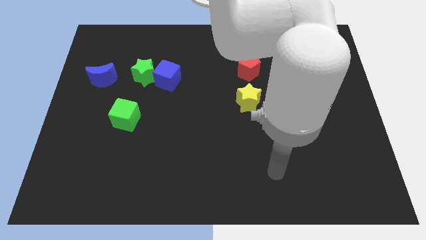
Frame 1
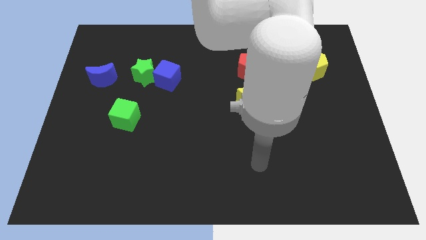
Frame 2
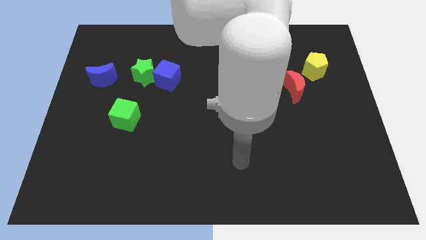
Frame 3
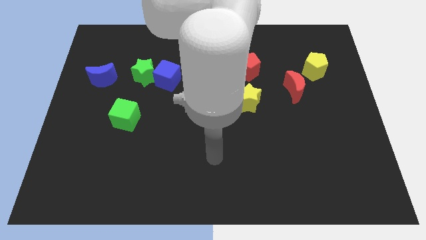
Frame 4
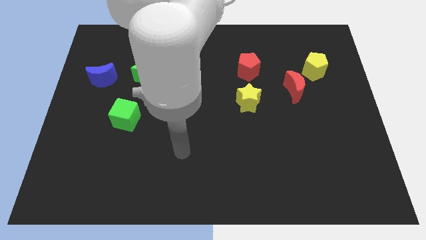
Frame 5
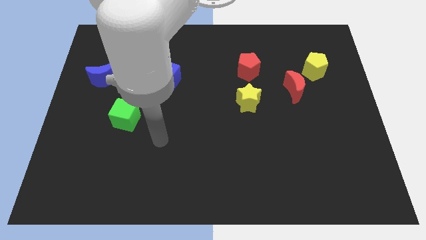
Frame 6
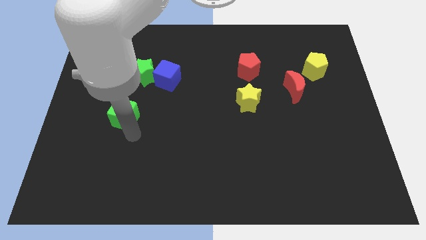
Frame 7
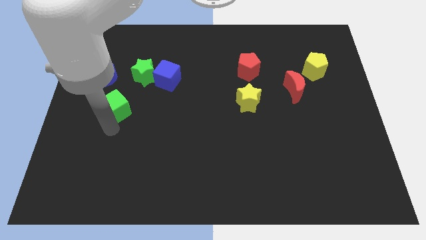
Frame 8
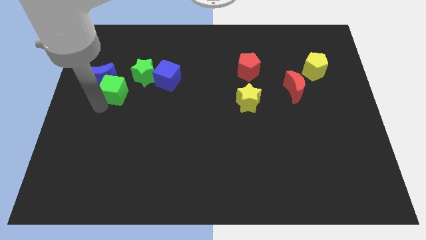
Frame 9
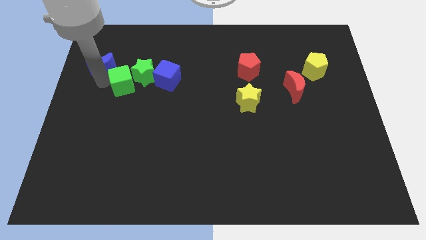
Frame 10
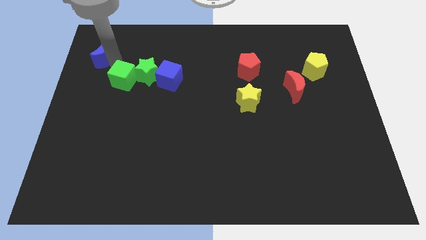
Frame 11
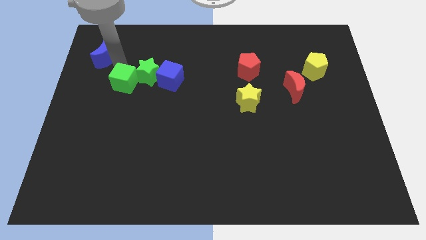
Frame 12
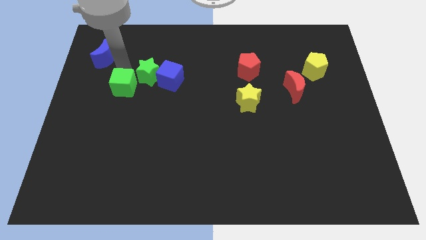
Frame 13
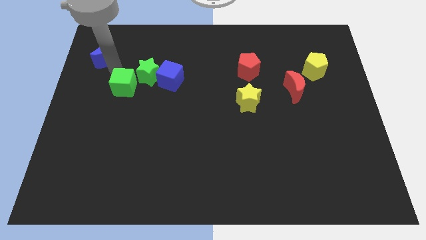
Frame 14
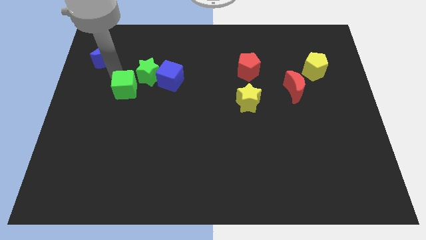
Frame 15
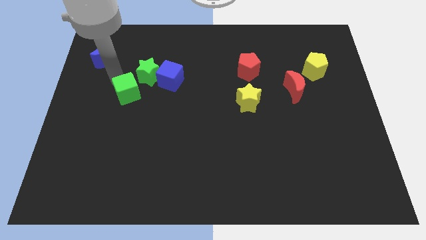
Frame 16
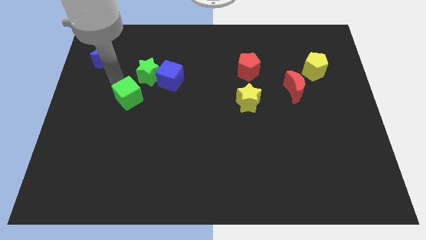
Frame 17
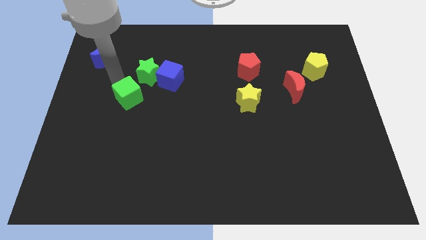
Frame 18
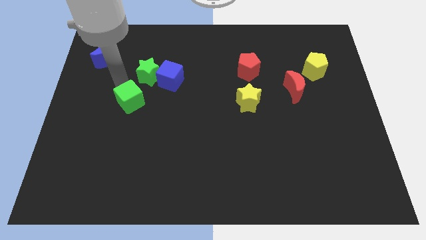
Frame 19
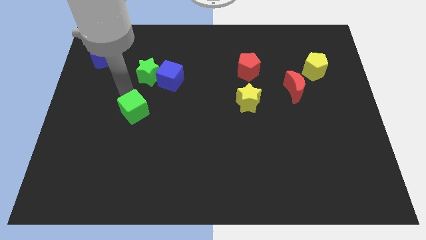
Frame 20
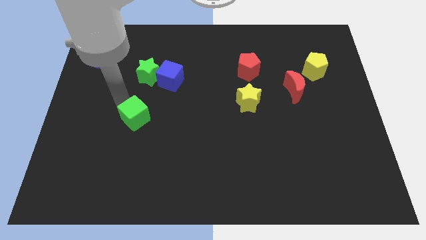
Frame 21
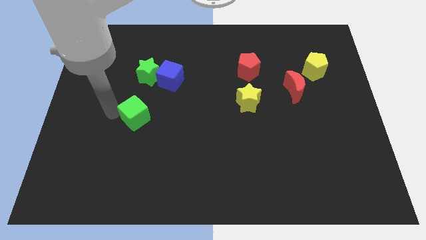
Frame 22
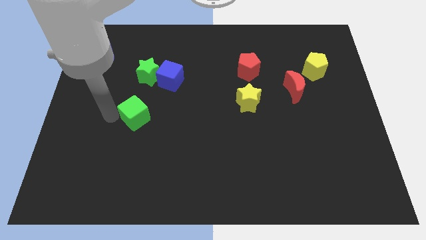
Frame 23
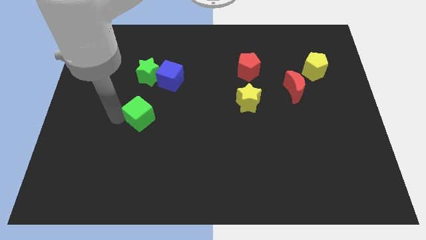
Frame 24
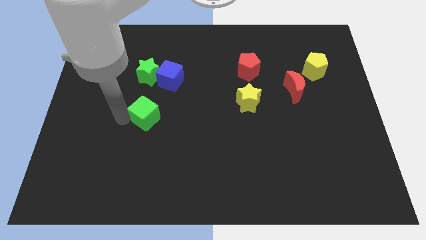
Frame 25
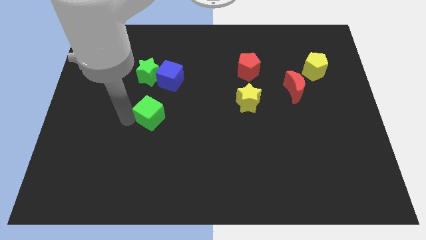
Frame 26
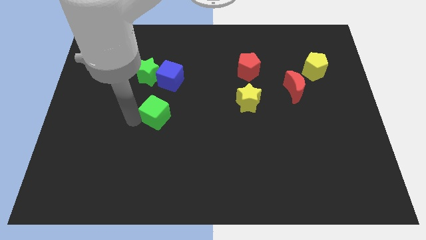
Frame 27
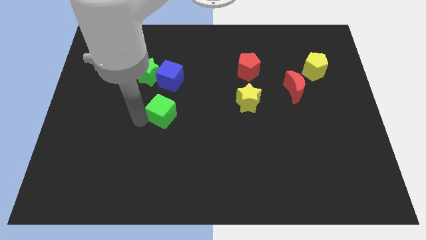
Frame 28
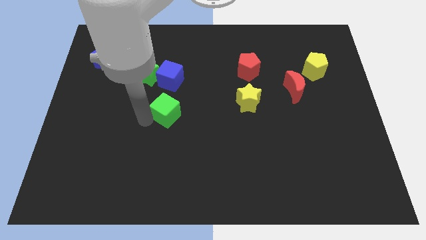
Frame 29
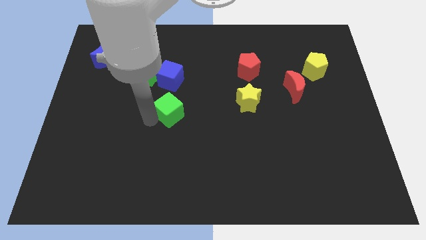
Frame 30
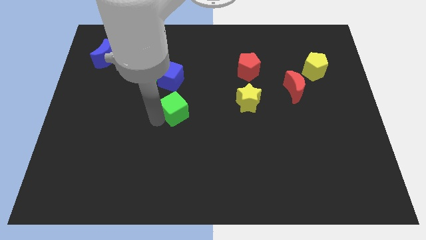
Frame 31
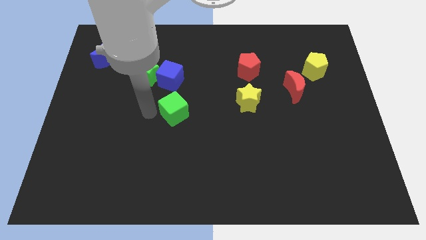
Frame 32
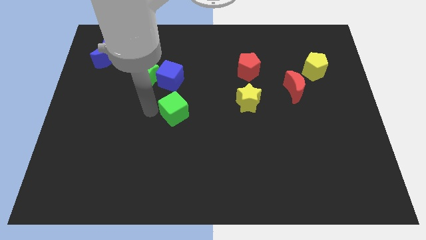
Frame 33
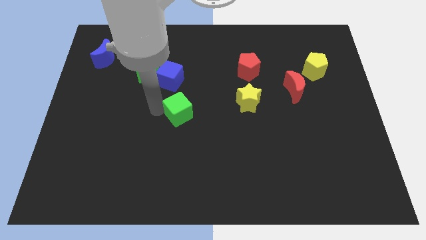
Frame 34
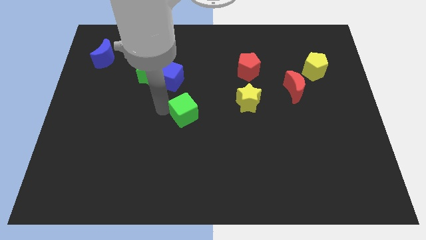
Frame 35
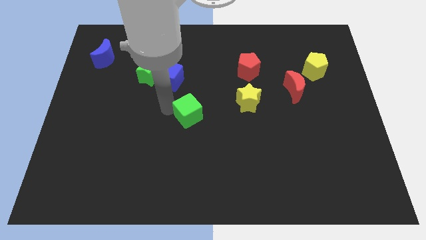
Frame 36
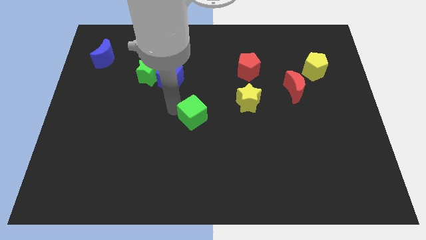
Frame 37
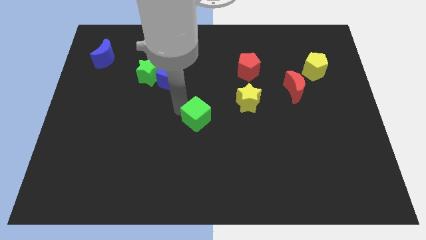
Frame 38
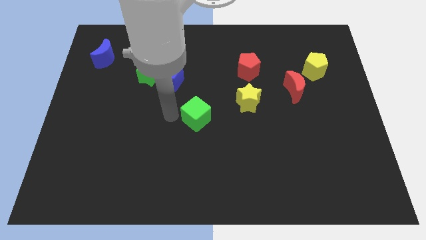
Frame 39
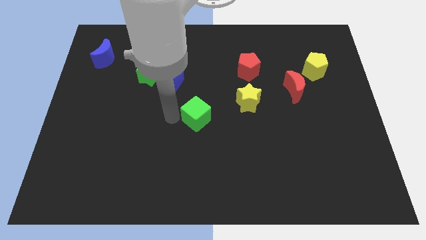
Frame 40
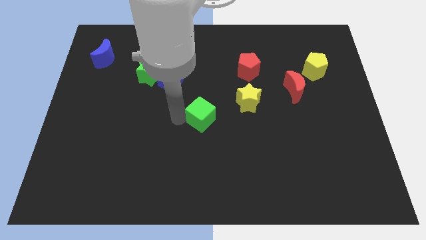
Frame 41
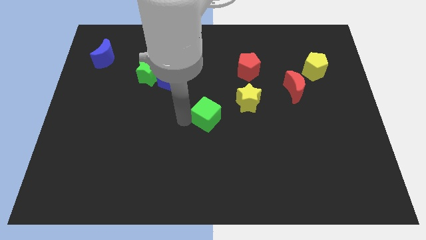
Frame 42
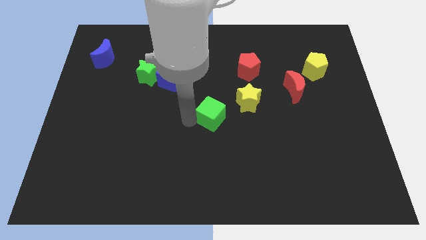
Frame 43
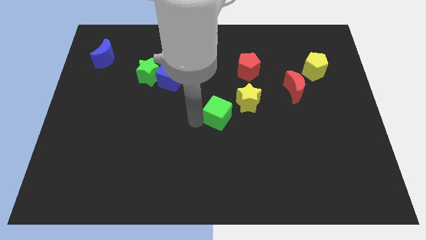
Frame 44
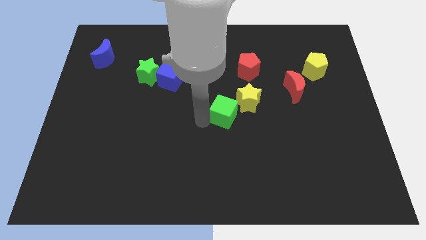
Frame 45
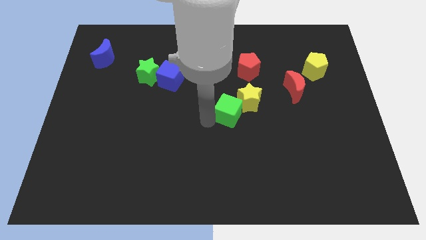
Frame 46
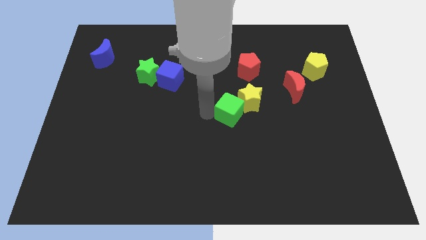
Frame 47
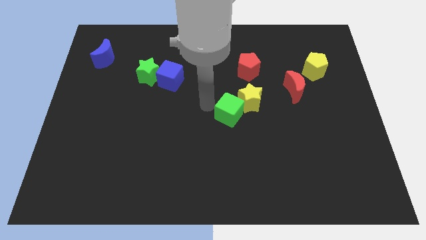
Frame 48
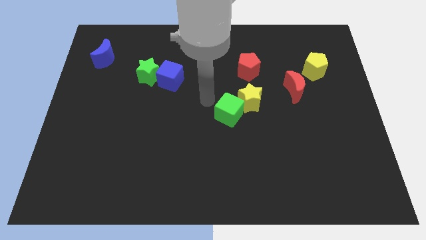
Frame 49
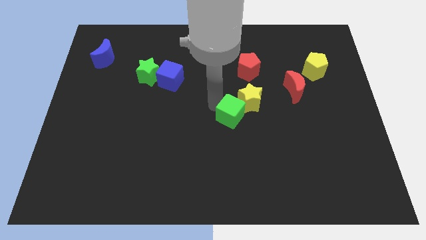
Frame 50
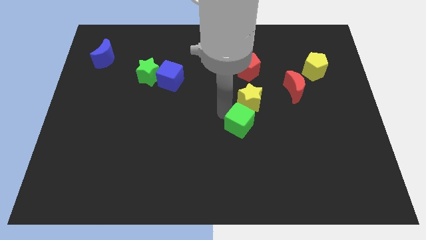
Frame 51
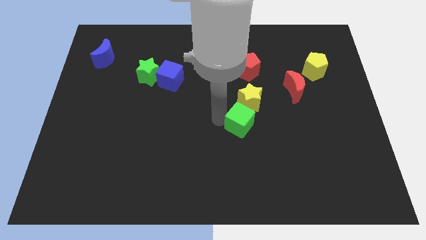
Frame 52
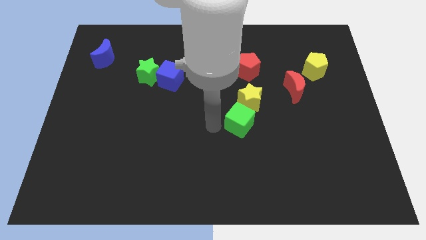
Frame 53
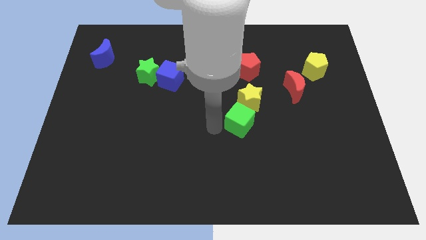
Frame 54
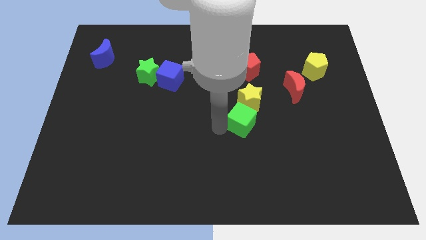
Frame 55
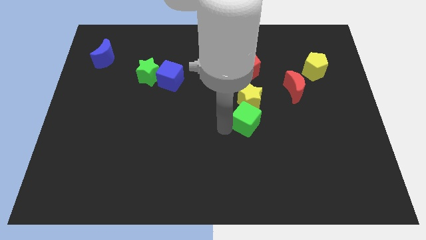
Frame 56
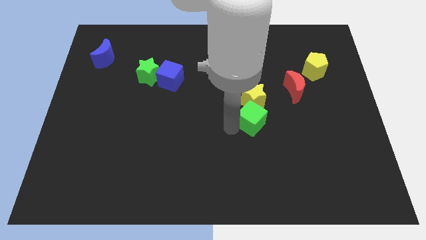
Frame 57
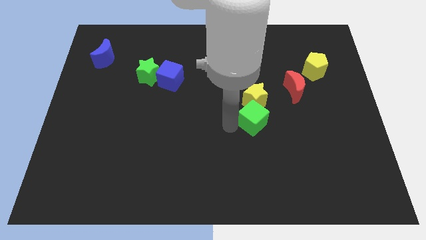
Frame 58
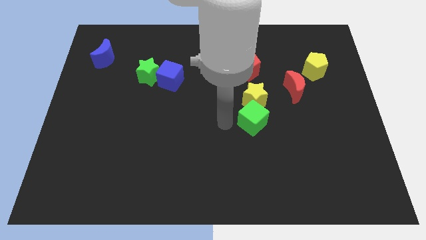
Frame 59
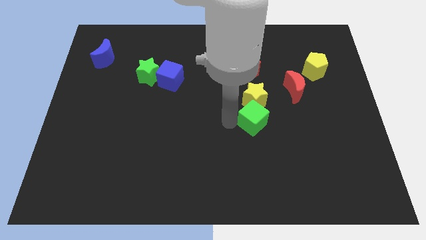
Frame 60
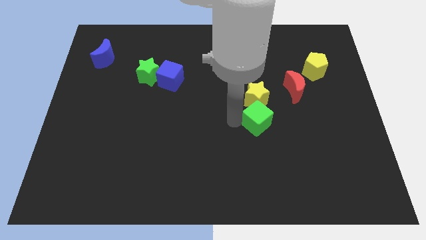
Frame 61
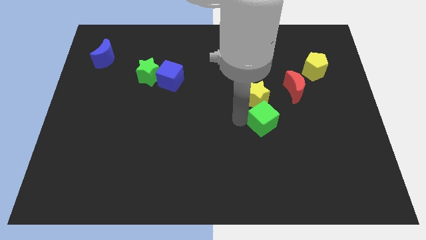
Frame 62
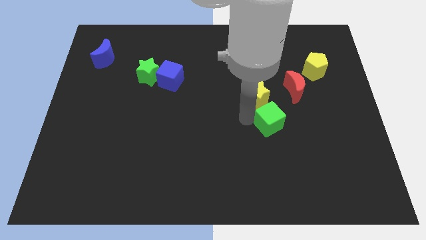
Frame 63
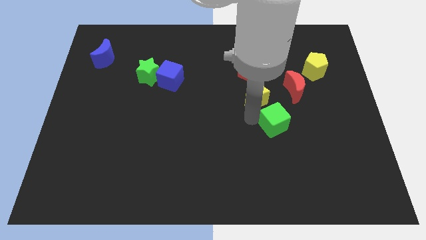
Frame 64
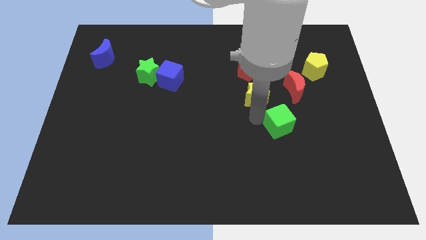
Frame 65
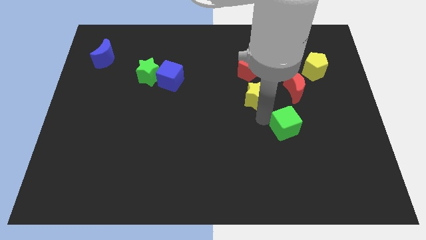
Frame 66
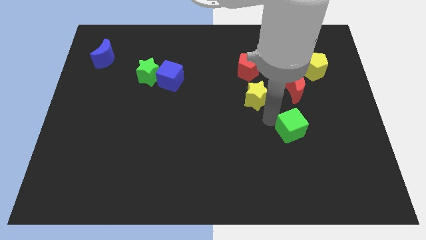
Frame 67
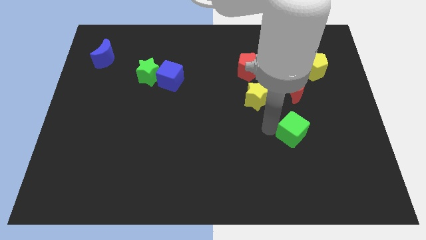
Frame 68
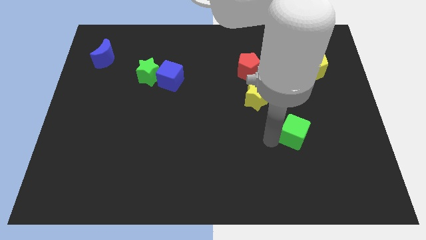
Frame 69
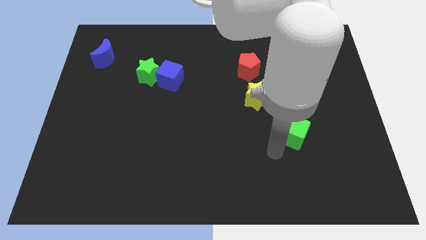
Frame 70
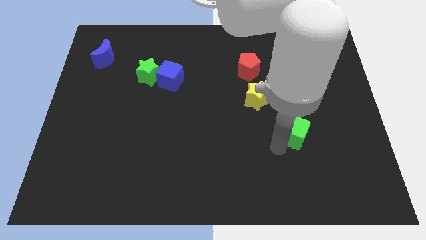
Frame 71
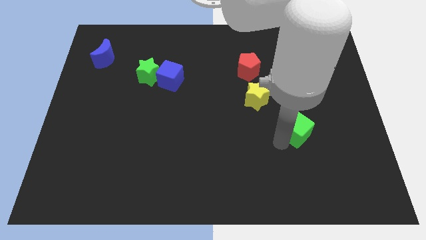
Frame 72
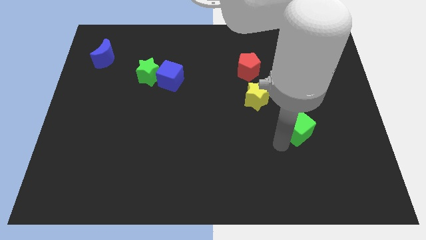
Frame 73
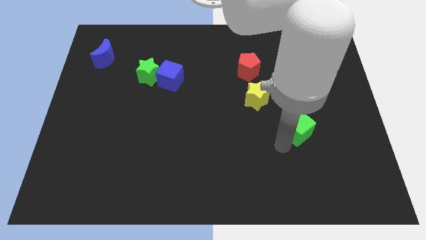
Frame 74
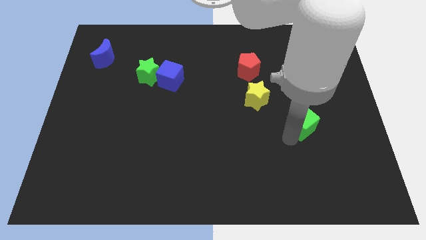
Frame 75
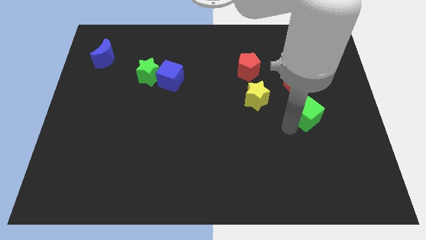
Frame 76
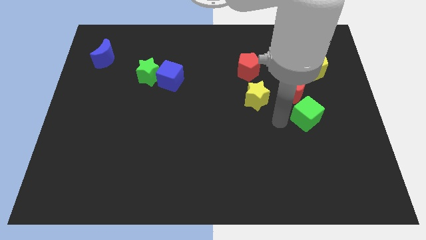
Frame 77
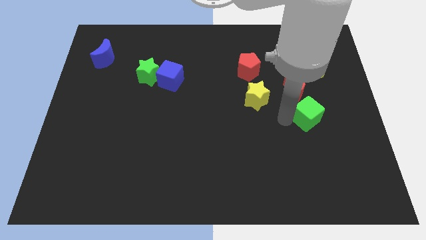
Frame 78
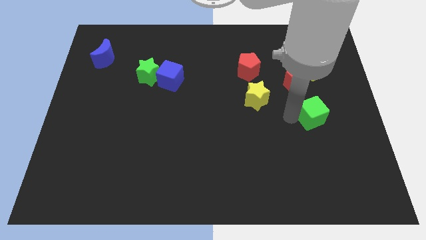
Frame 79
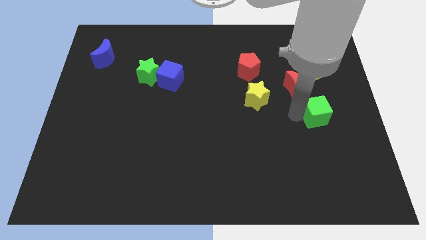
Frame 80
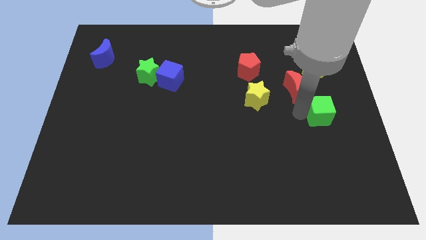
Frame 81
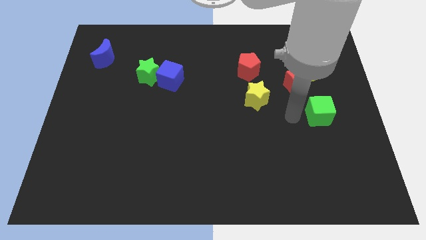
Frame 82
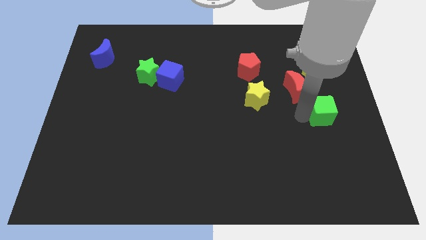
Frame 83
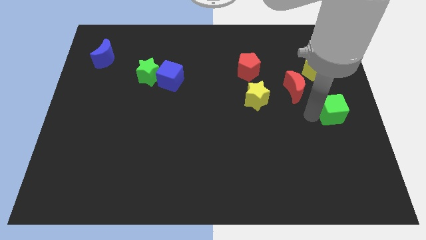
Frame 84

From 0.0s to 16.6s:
put the green cube to the right side
